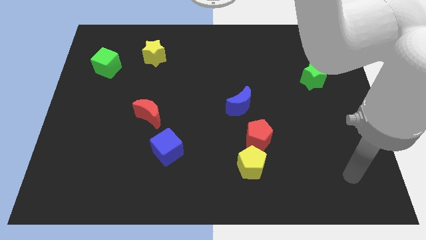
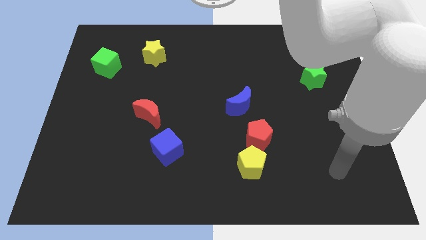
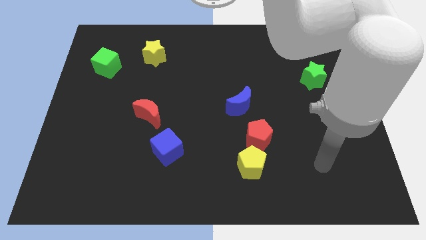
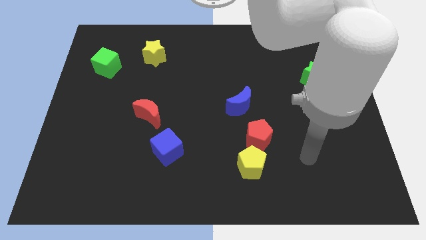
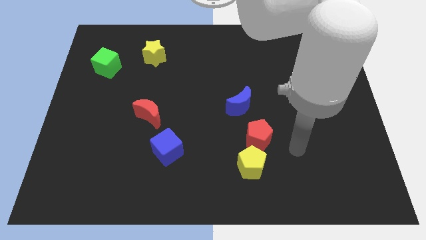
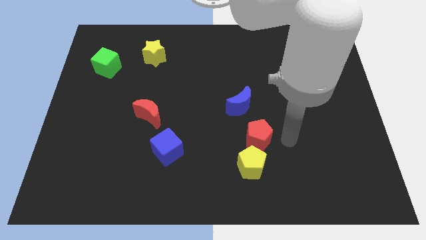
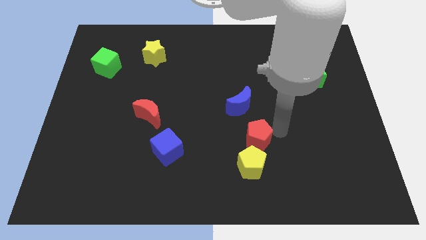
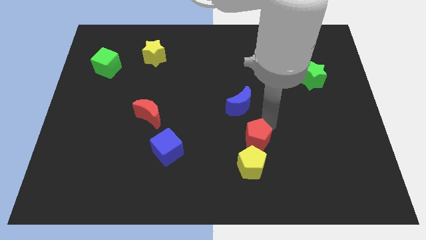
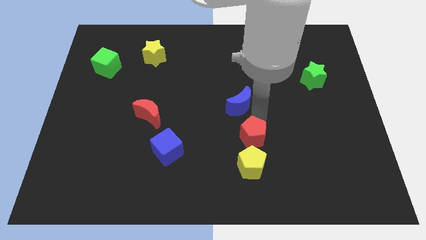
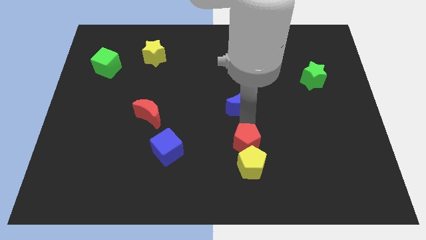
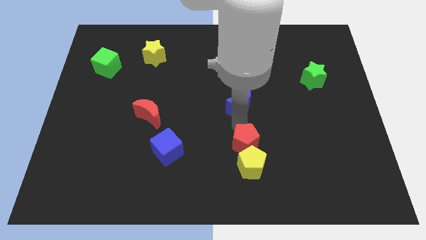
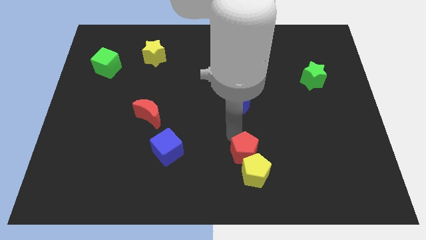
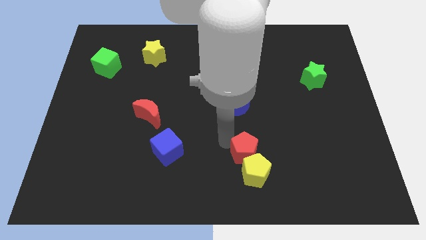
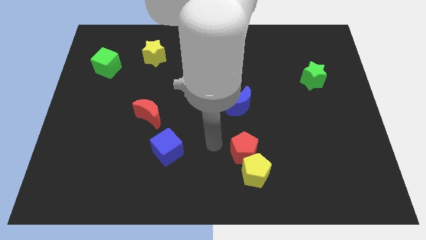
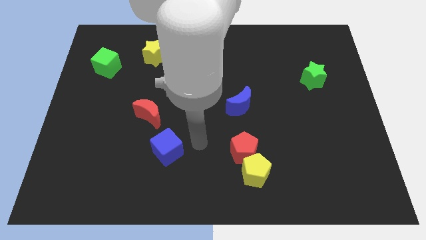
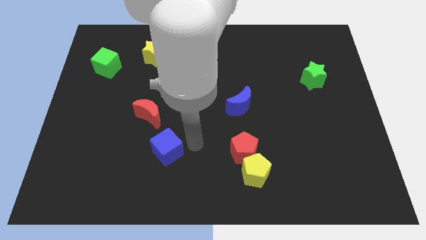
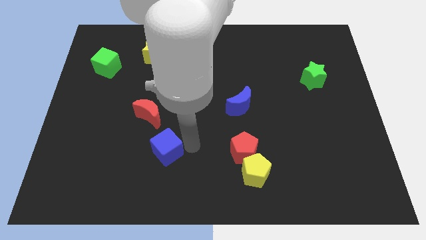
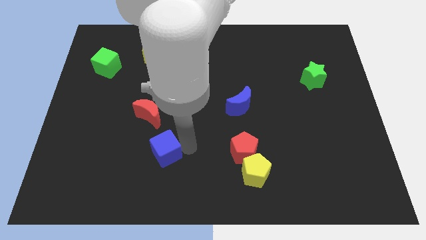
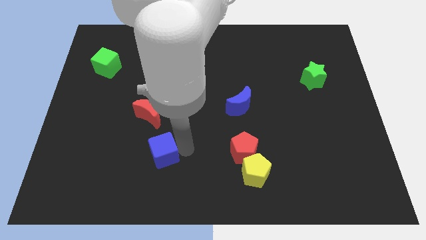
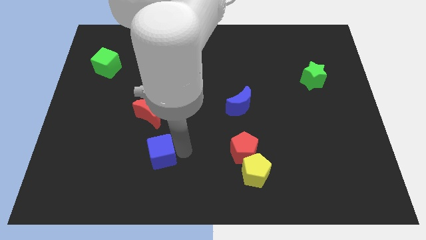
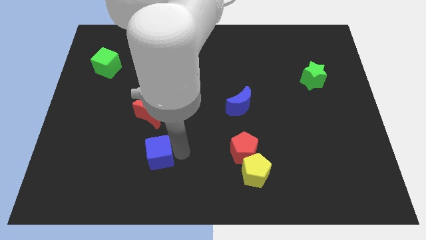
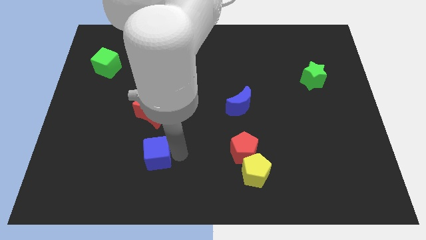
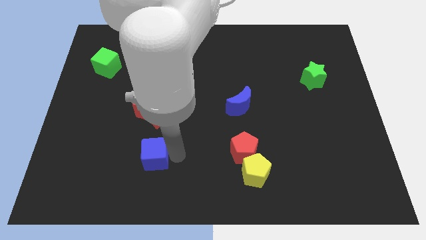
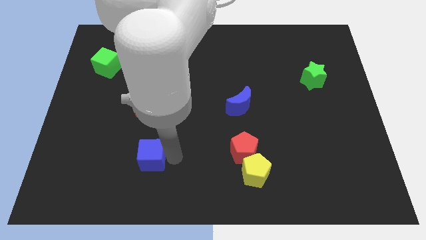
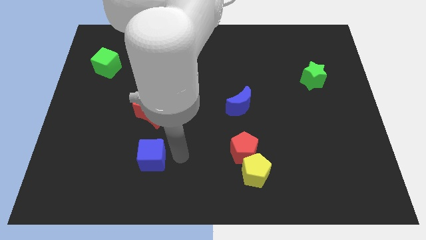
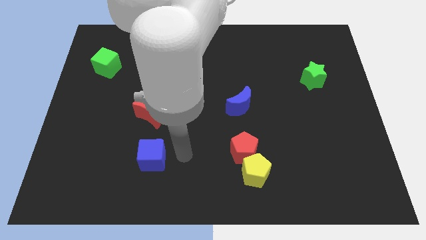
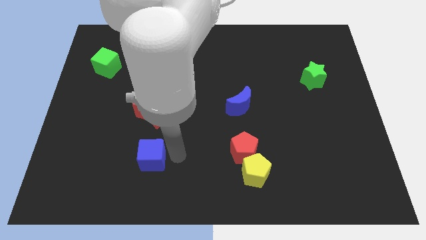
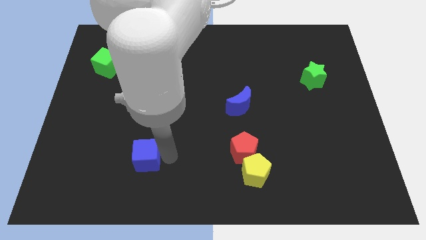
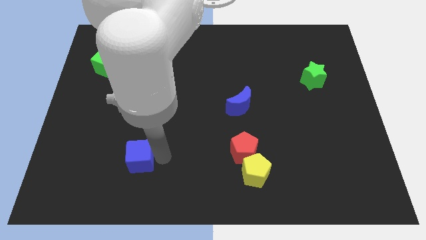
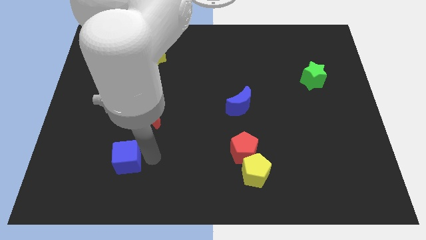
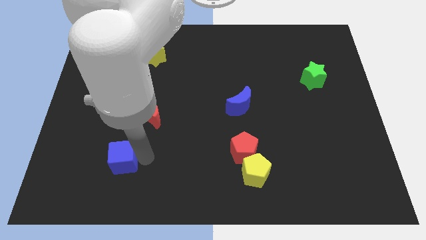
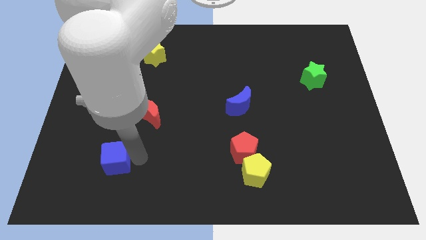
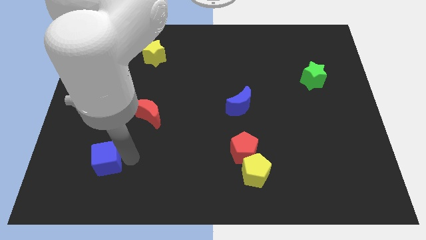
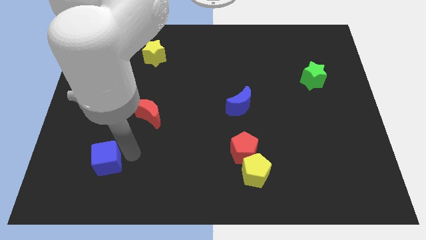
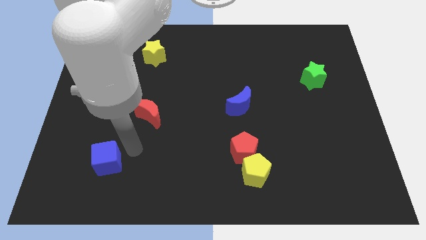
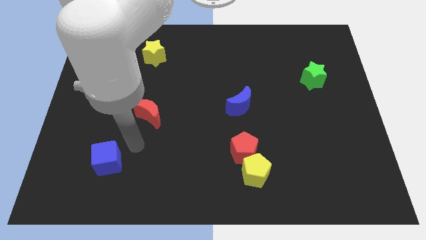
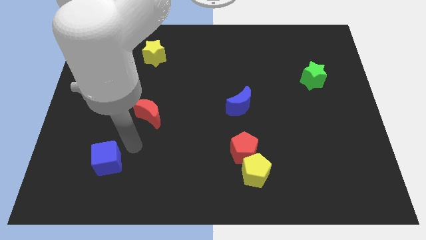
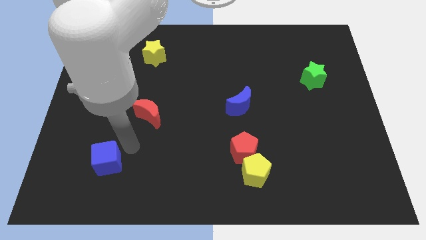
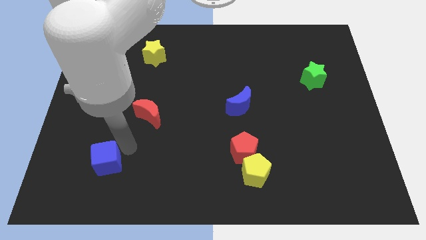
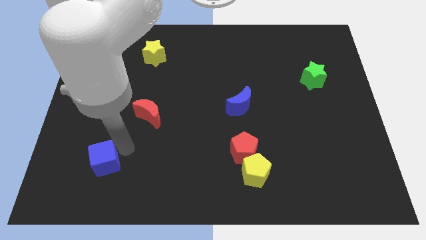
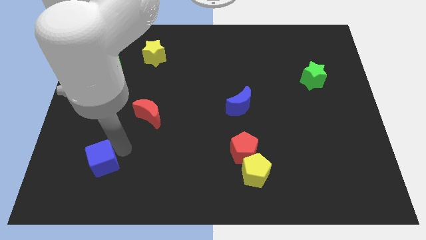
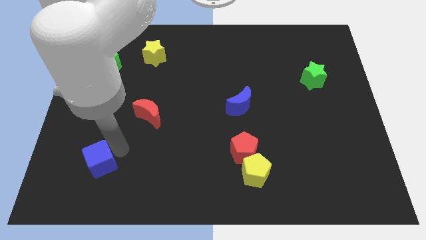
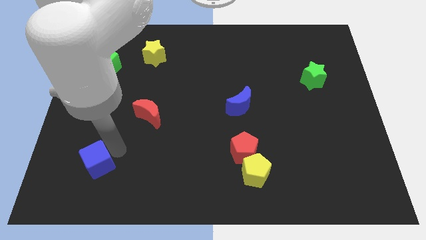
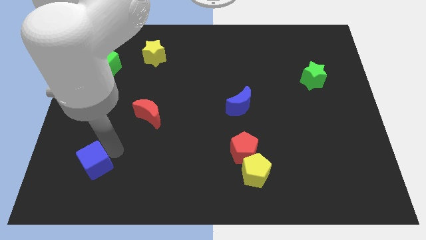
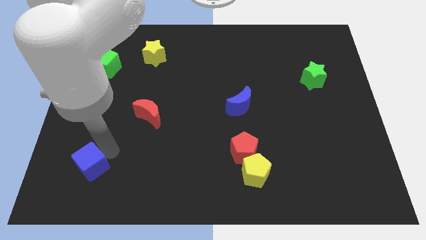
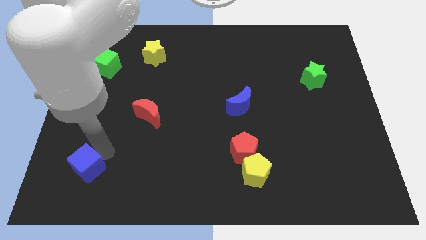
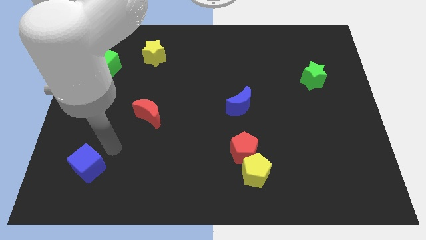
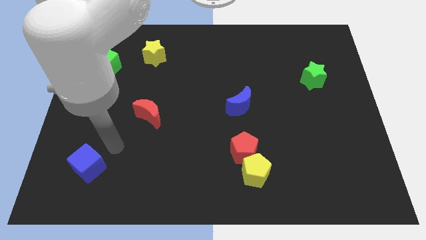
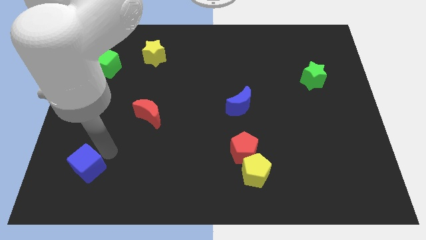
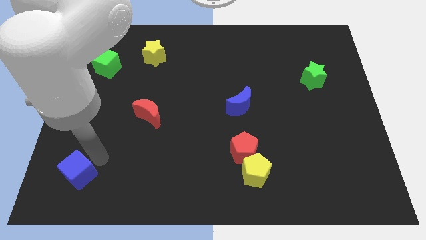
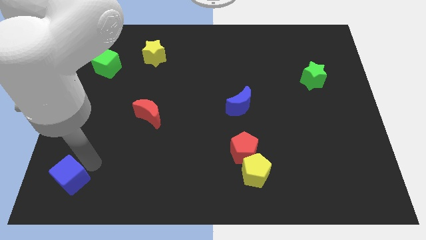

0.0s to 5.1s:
push the blue cube to the bottom left corner

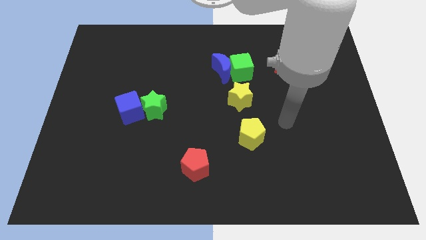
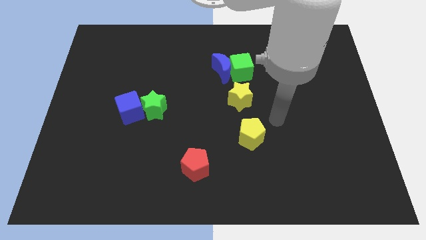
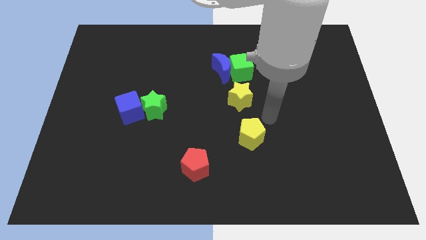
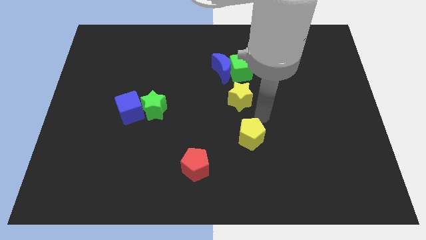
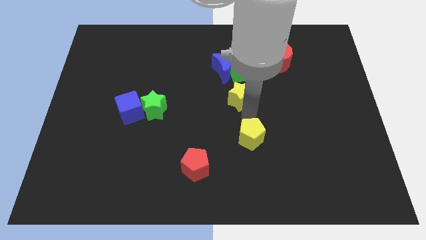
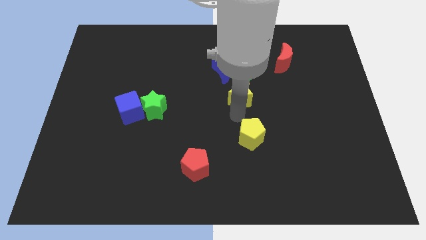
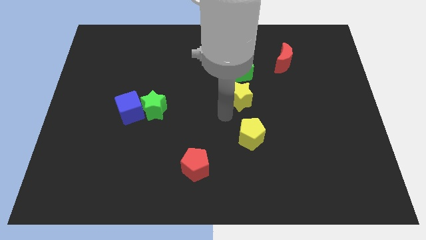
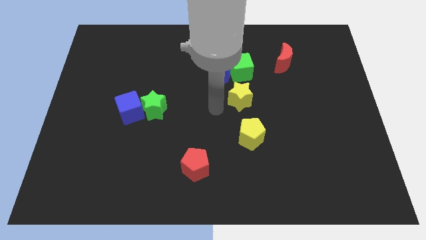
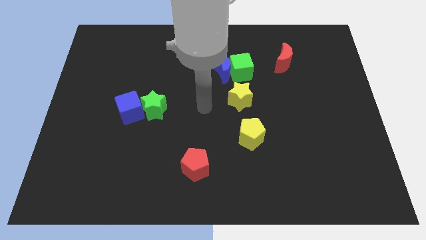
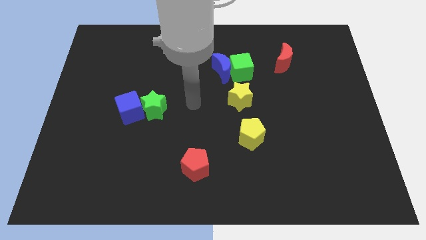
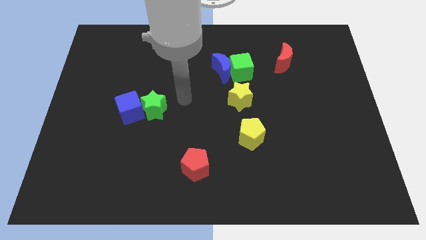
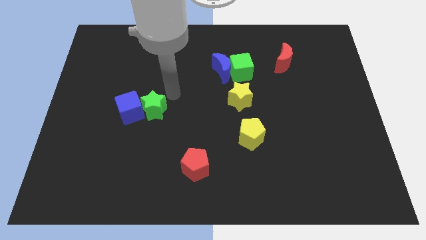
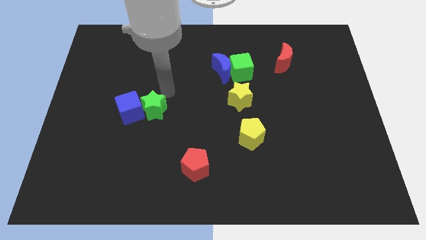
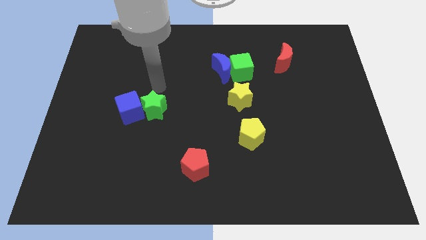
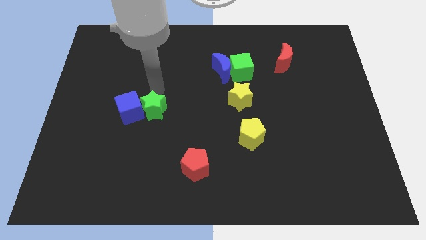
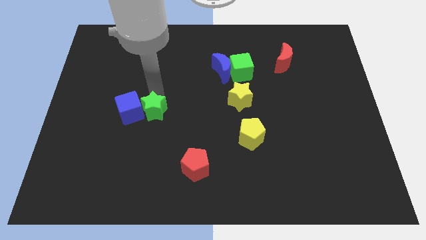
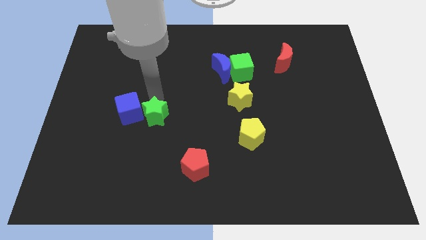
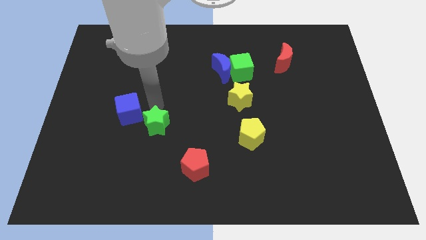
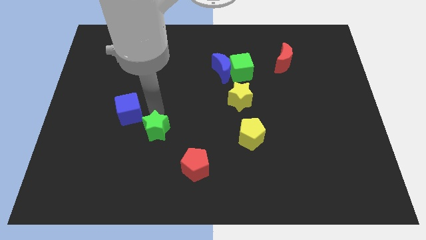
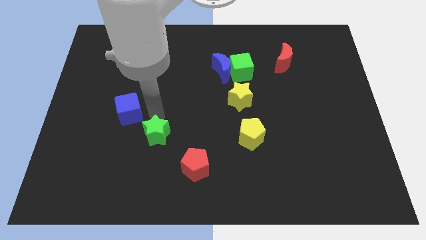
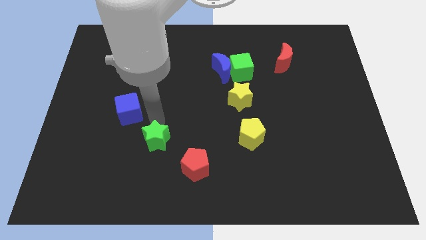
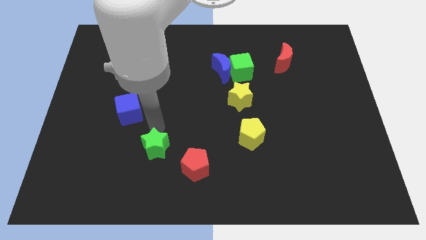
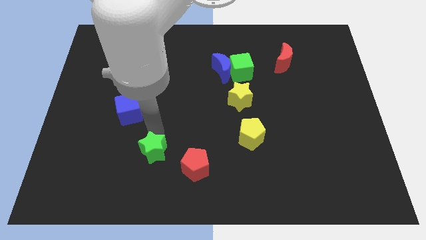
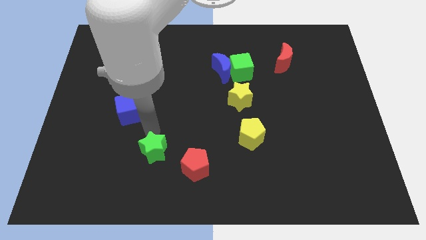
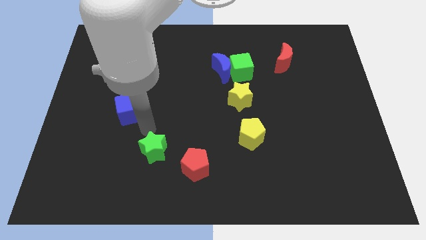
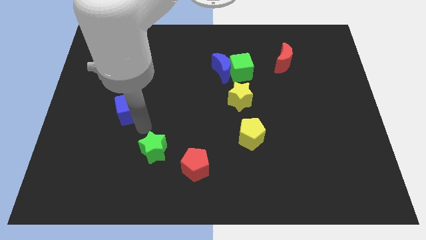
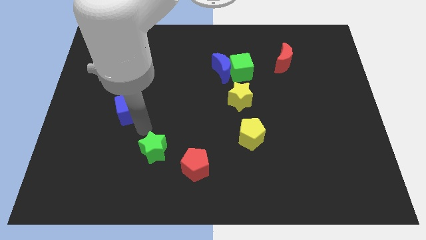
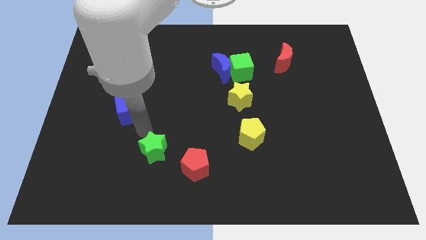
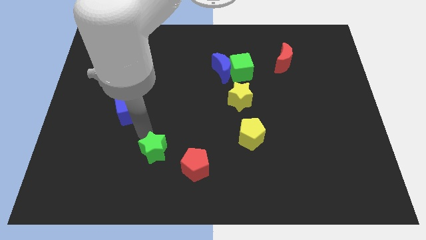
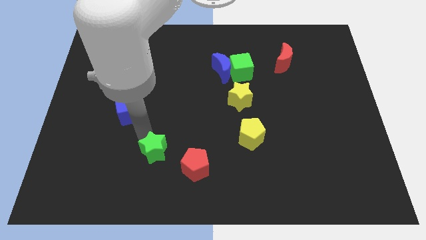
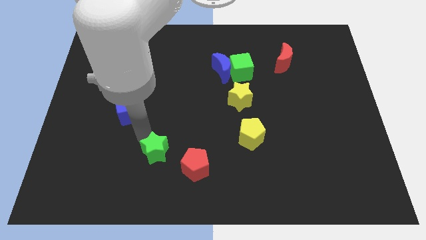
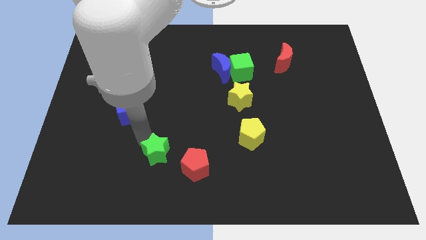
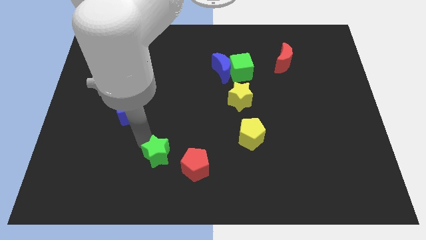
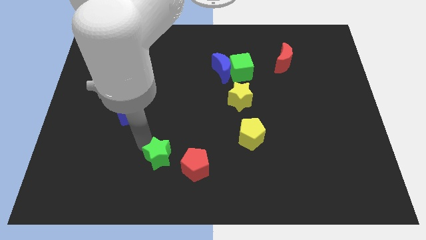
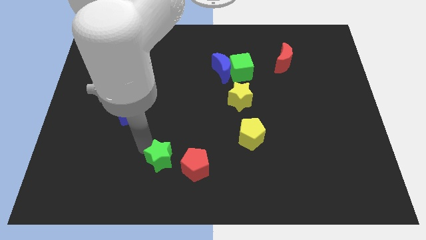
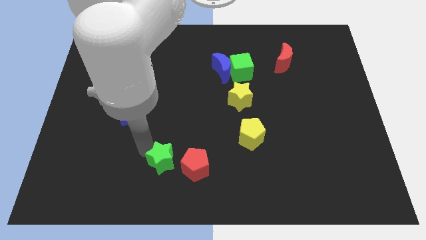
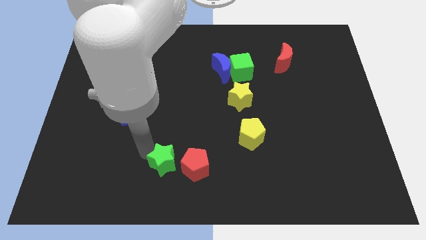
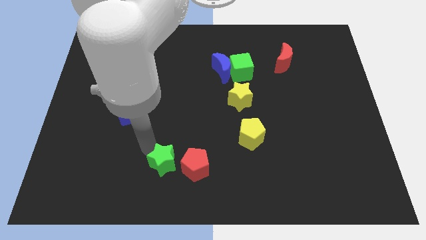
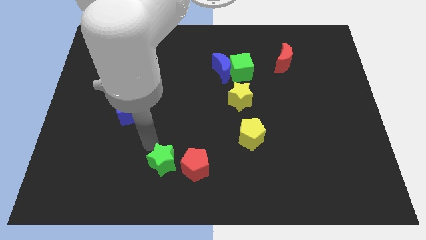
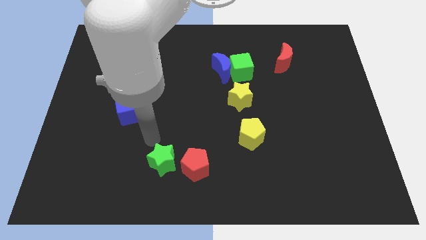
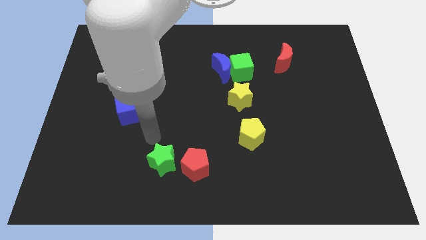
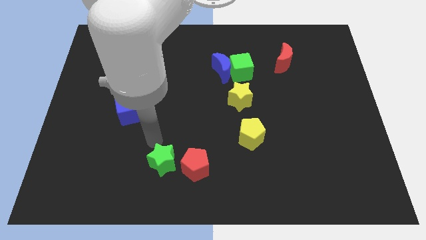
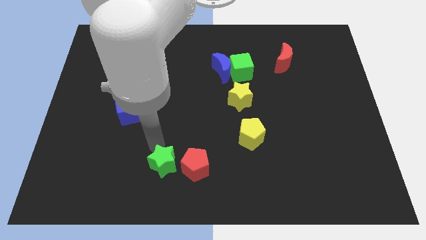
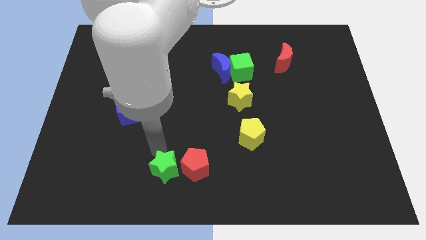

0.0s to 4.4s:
put the green star to the bottom side
